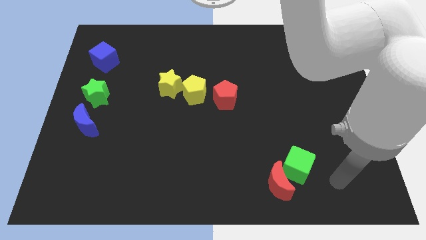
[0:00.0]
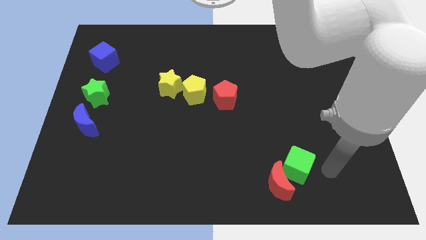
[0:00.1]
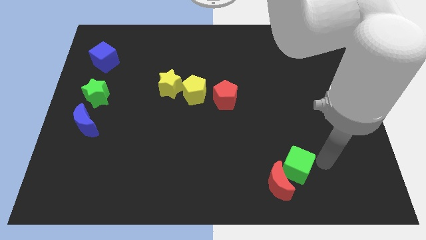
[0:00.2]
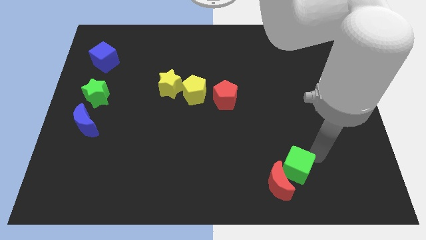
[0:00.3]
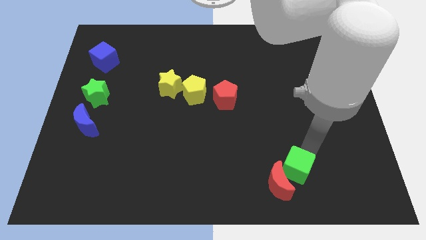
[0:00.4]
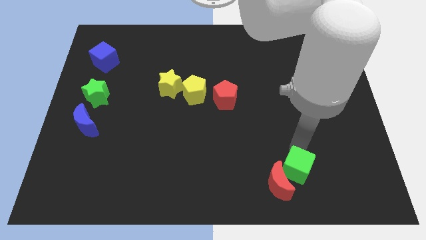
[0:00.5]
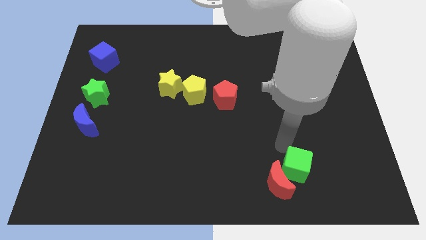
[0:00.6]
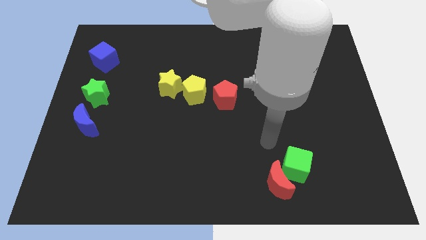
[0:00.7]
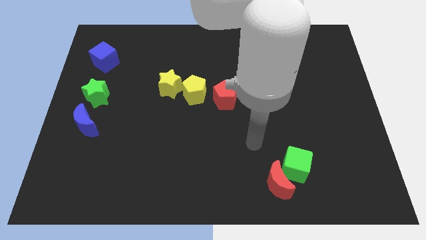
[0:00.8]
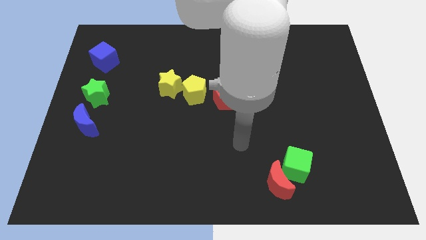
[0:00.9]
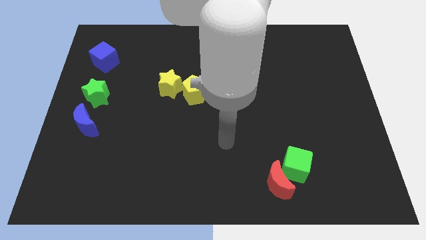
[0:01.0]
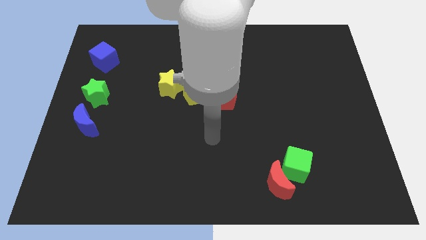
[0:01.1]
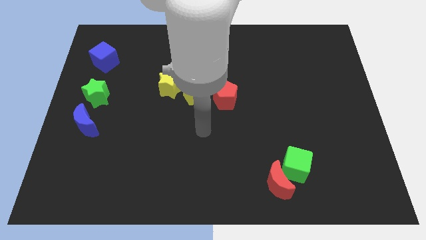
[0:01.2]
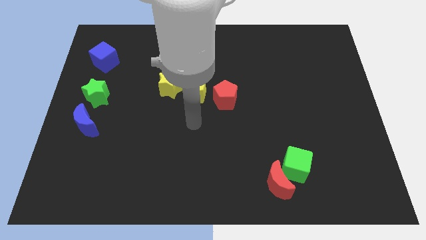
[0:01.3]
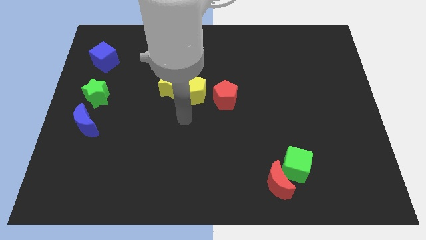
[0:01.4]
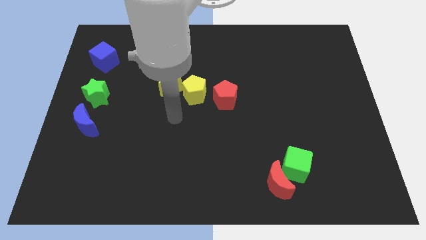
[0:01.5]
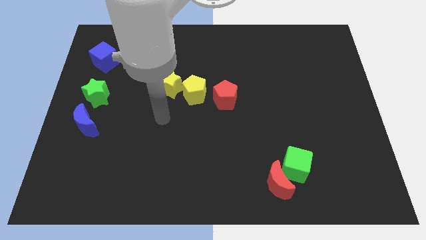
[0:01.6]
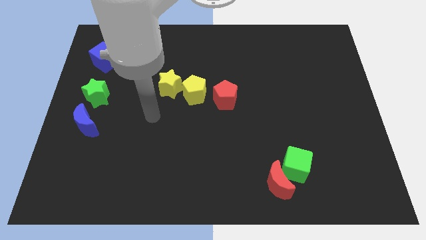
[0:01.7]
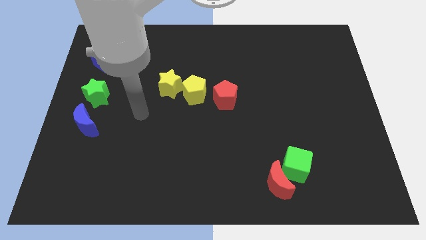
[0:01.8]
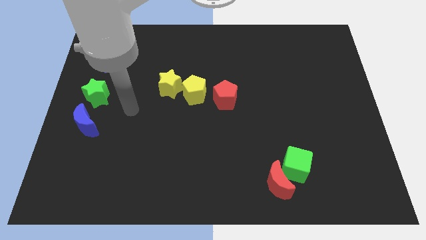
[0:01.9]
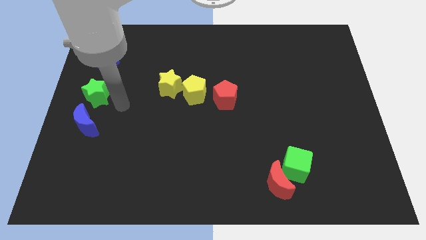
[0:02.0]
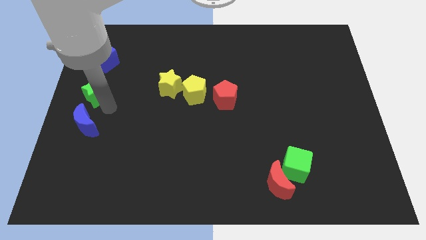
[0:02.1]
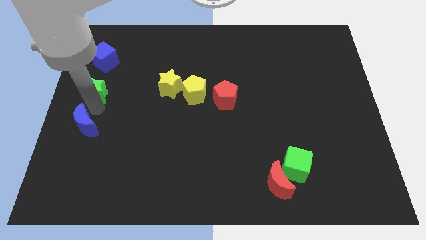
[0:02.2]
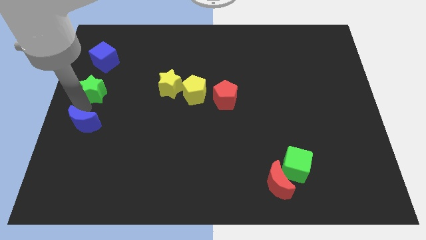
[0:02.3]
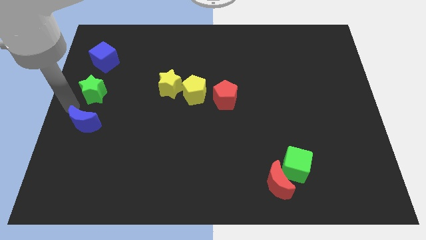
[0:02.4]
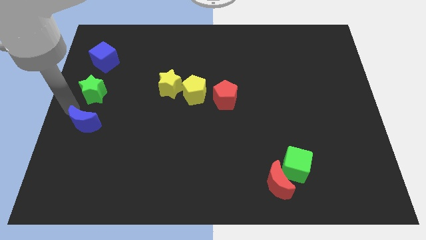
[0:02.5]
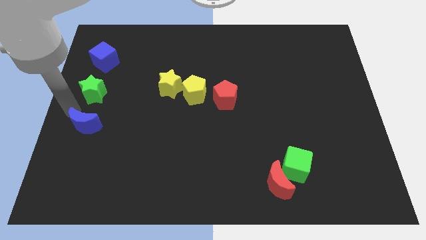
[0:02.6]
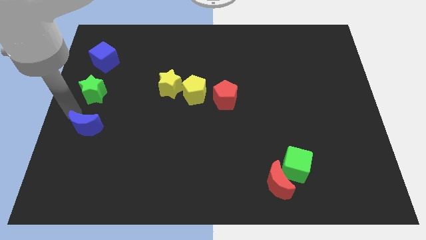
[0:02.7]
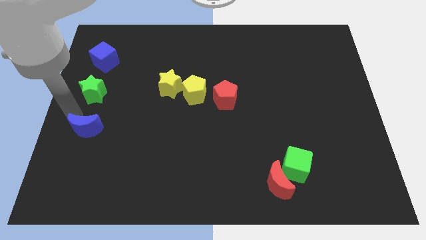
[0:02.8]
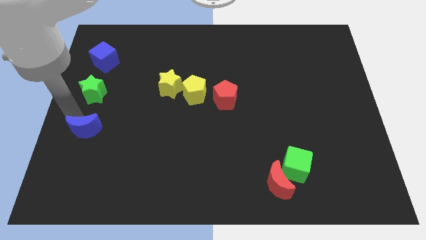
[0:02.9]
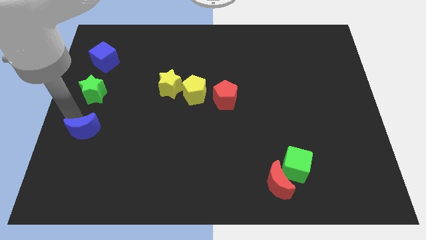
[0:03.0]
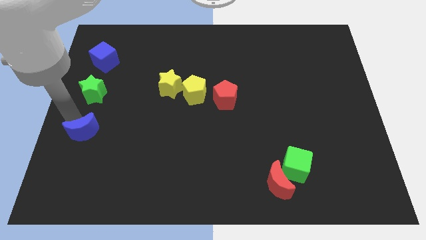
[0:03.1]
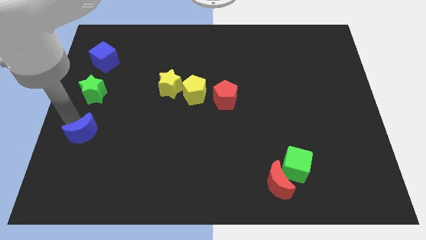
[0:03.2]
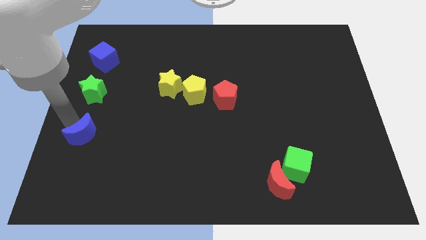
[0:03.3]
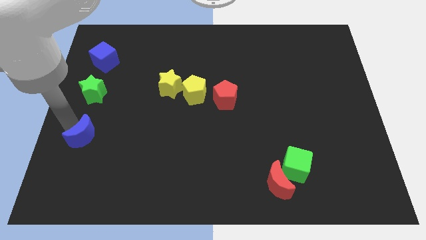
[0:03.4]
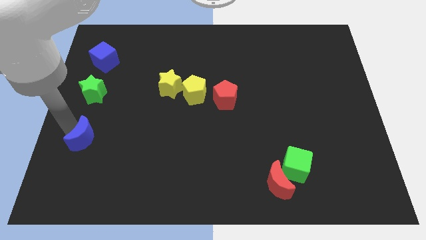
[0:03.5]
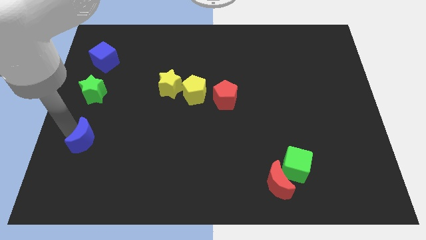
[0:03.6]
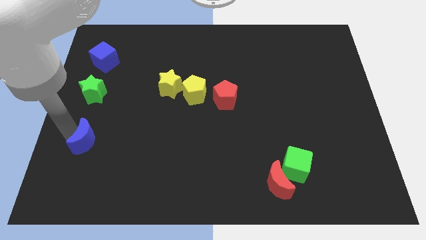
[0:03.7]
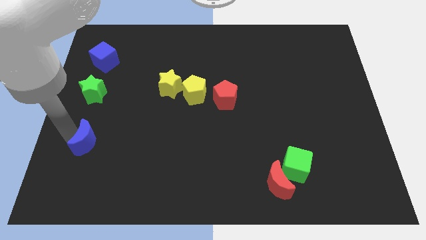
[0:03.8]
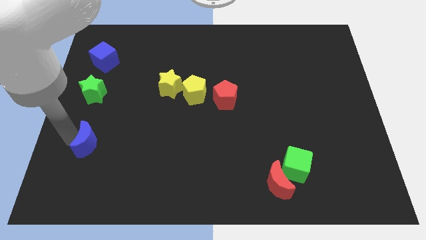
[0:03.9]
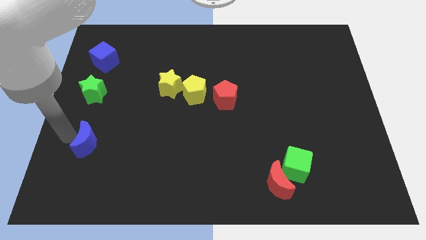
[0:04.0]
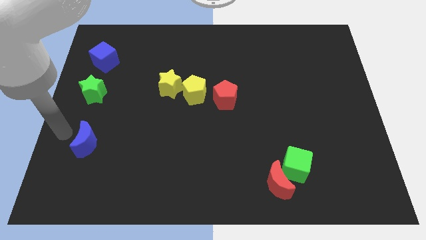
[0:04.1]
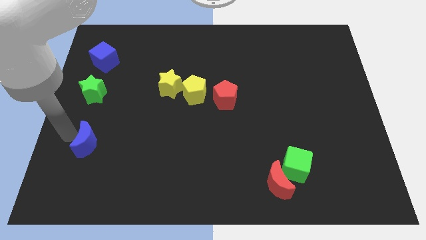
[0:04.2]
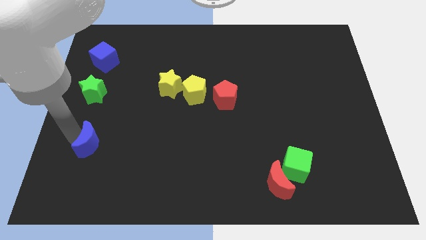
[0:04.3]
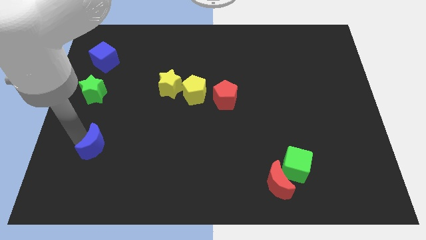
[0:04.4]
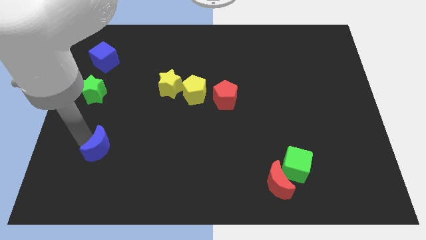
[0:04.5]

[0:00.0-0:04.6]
push the blue moon down and then right a bit

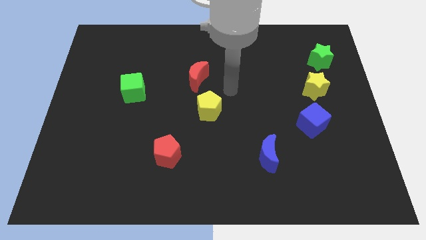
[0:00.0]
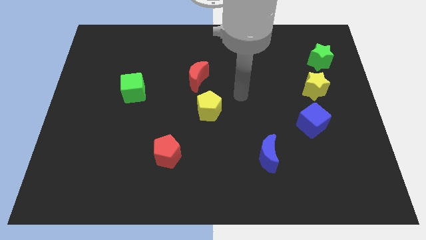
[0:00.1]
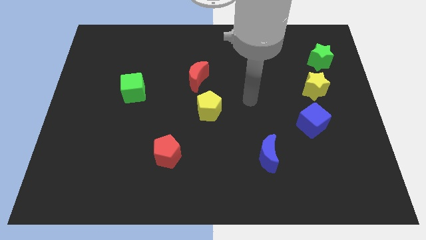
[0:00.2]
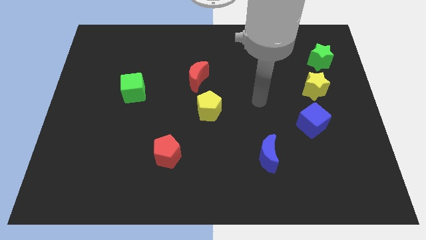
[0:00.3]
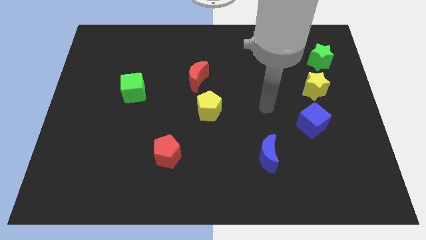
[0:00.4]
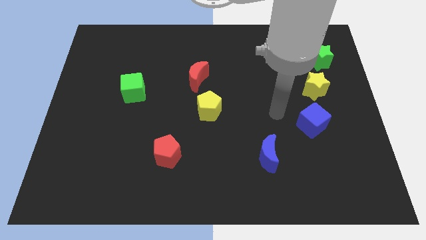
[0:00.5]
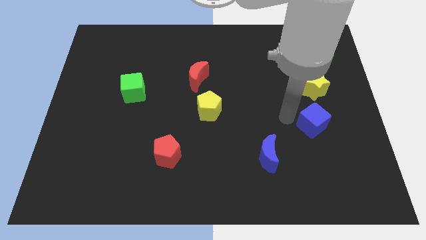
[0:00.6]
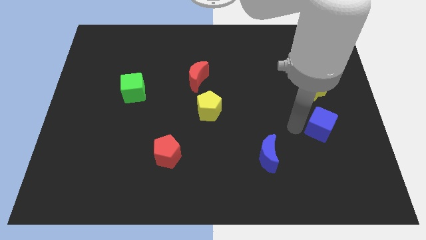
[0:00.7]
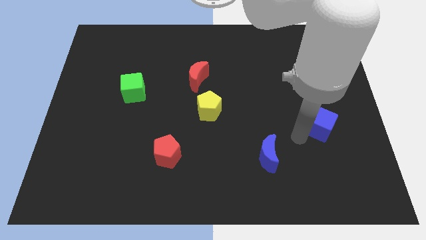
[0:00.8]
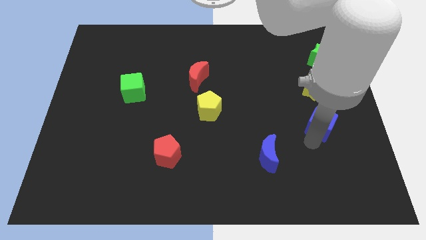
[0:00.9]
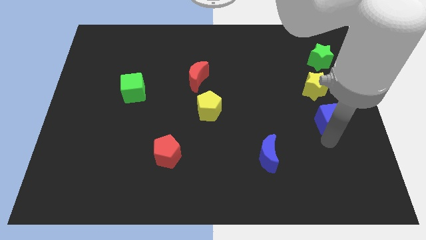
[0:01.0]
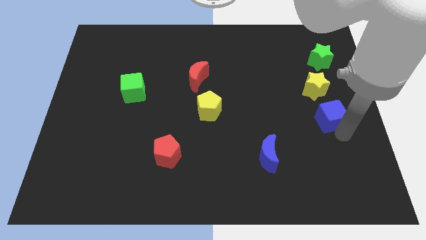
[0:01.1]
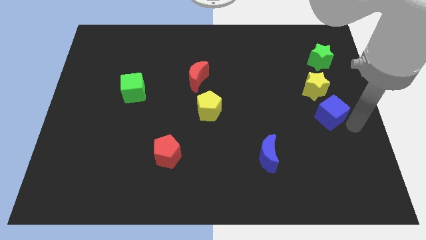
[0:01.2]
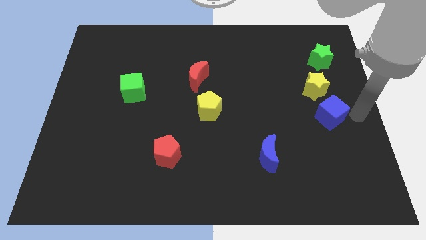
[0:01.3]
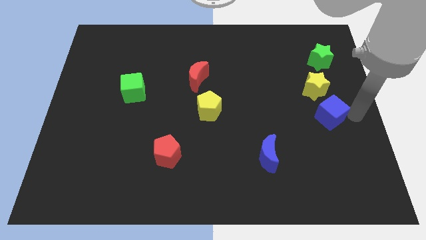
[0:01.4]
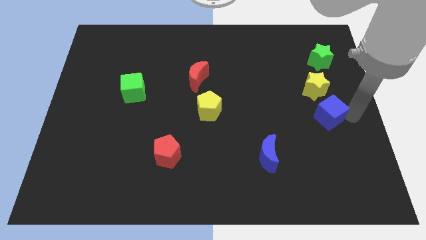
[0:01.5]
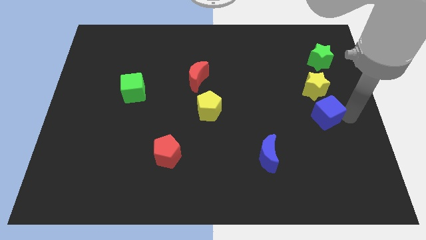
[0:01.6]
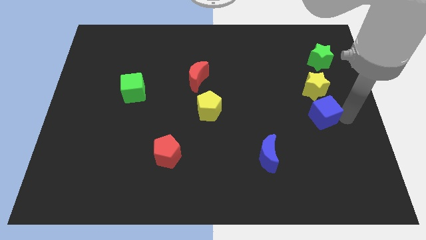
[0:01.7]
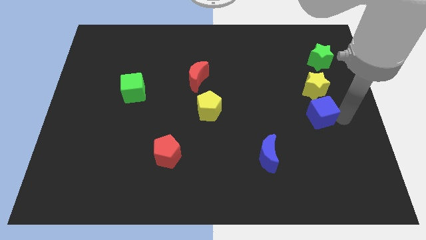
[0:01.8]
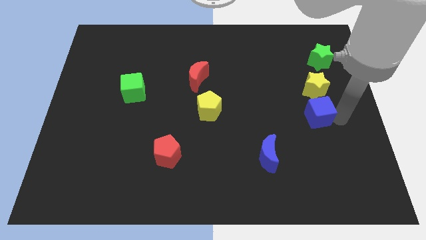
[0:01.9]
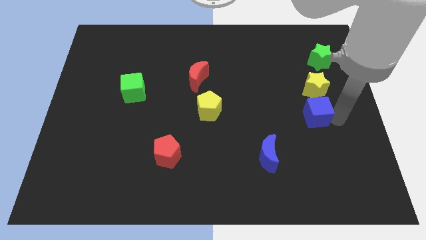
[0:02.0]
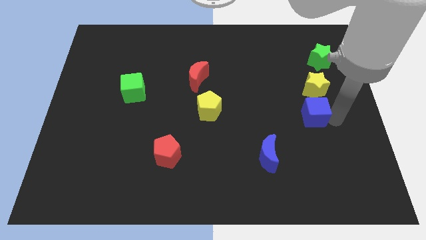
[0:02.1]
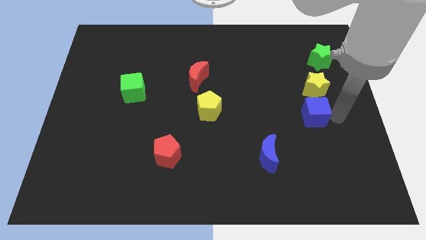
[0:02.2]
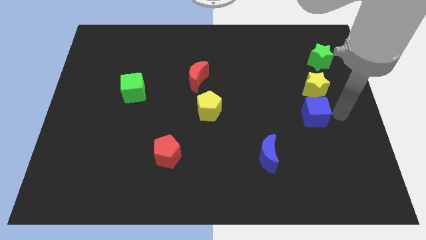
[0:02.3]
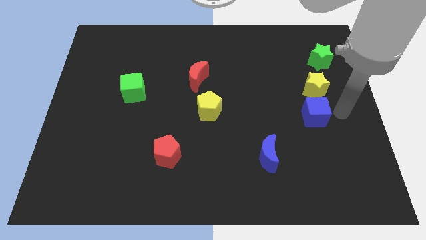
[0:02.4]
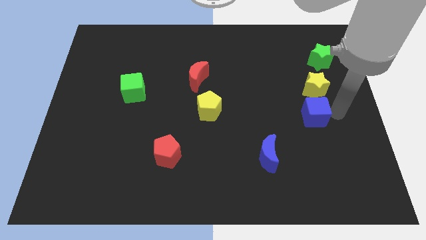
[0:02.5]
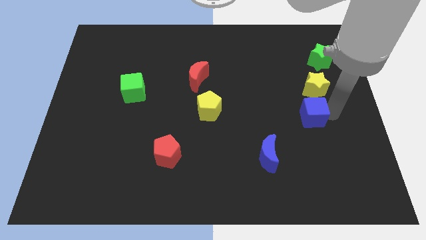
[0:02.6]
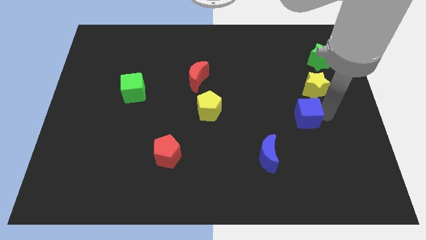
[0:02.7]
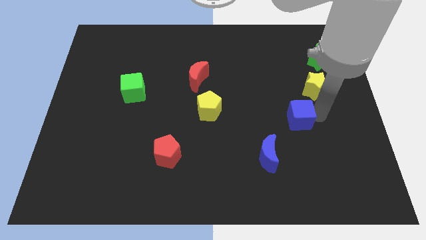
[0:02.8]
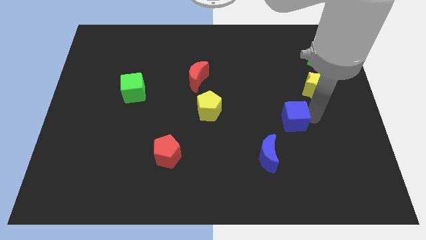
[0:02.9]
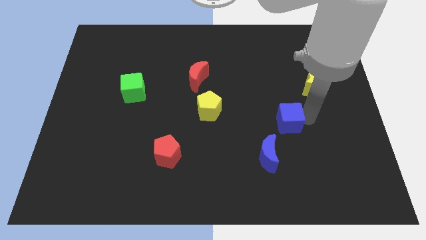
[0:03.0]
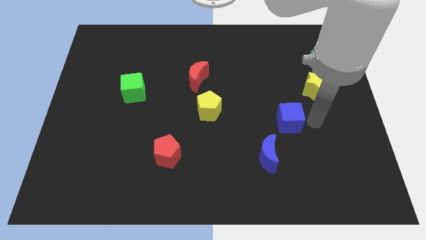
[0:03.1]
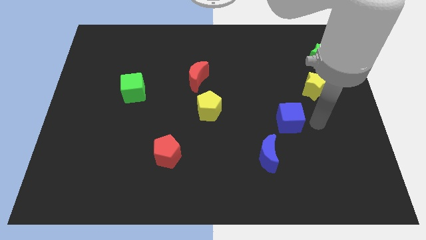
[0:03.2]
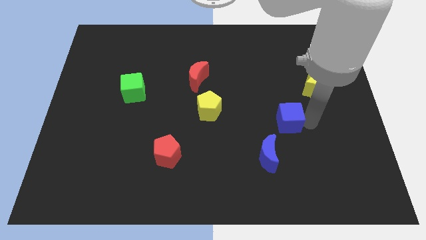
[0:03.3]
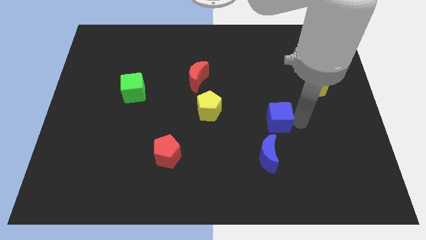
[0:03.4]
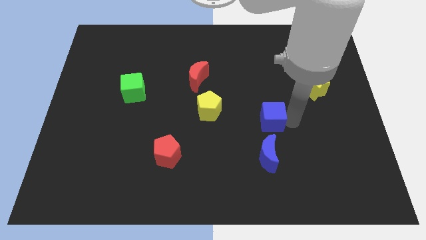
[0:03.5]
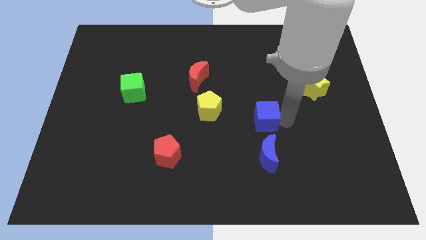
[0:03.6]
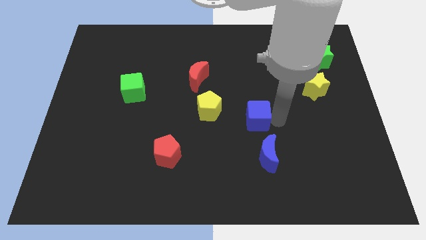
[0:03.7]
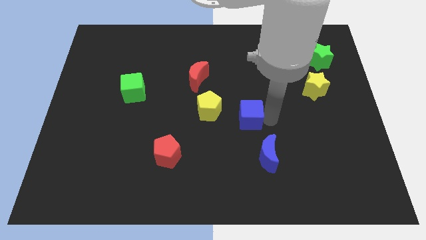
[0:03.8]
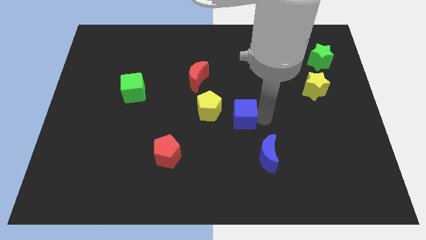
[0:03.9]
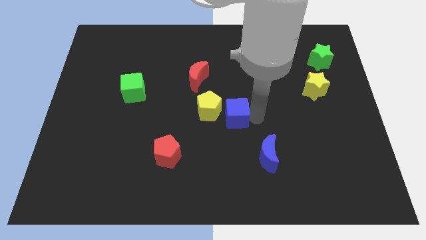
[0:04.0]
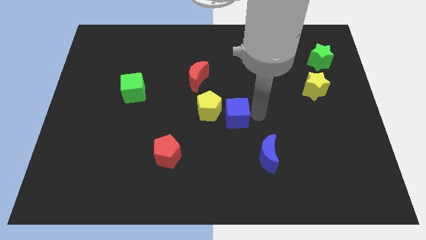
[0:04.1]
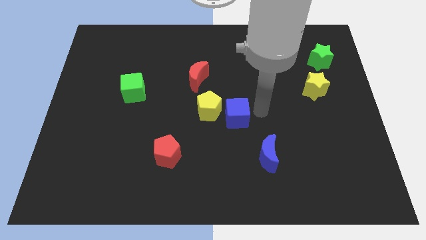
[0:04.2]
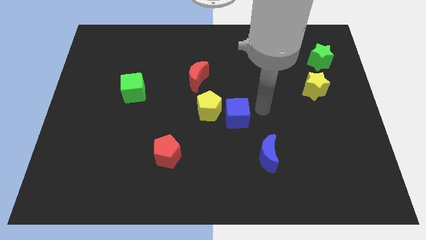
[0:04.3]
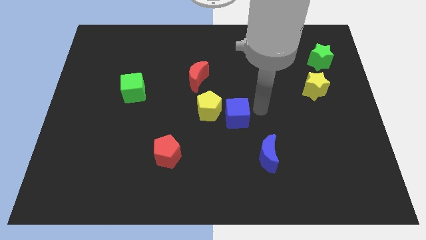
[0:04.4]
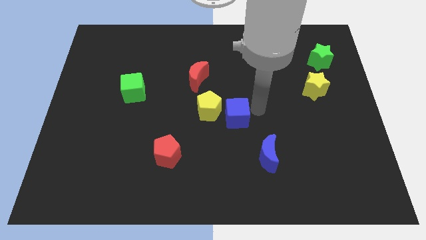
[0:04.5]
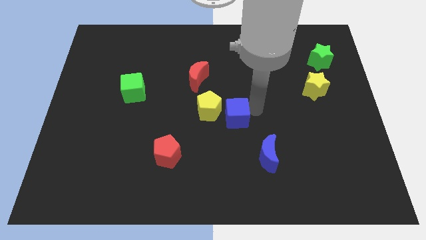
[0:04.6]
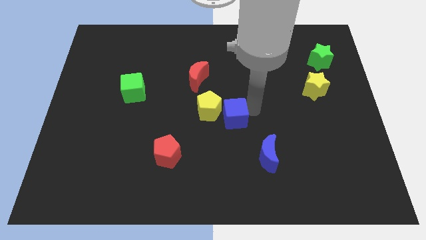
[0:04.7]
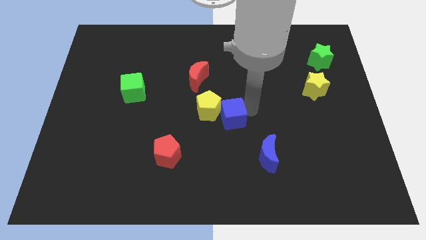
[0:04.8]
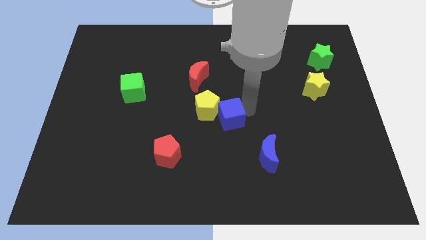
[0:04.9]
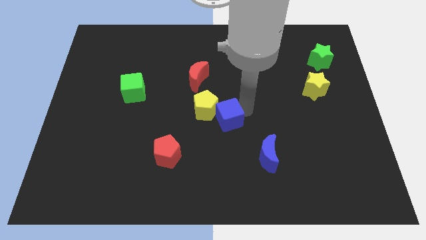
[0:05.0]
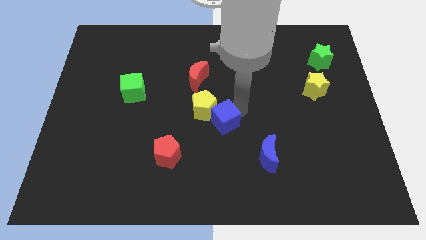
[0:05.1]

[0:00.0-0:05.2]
slide the blue cube left
